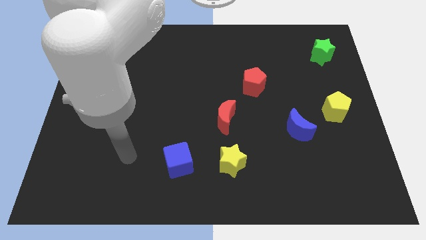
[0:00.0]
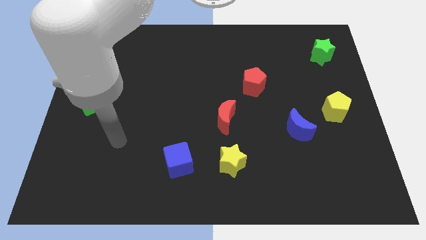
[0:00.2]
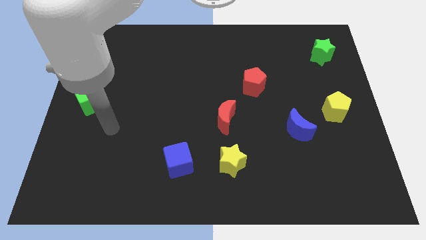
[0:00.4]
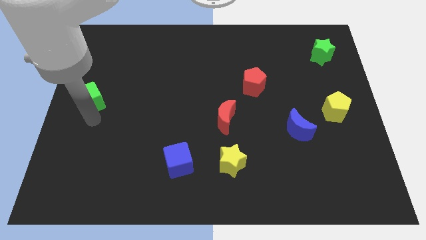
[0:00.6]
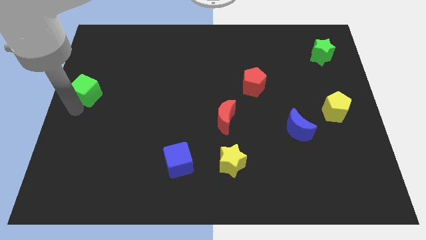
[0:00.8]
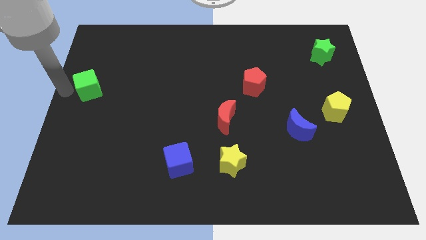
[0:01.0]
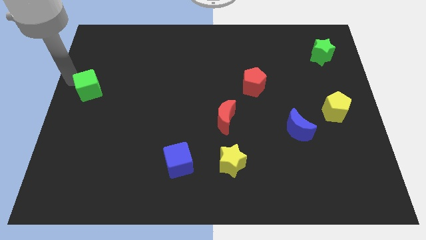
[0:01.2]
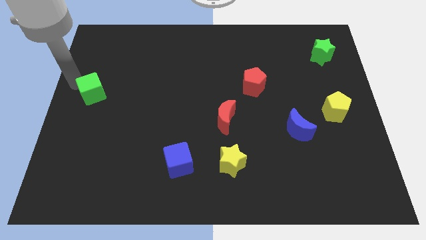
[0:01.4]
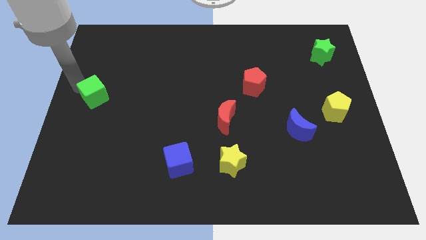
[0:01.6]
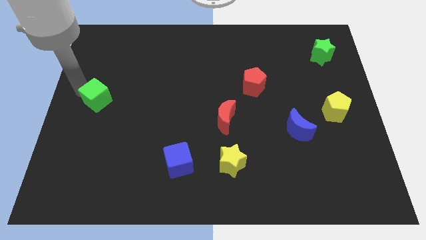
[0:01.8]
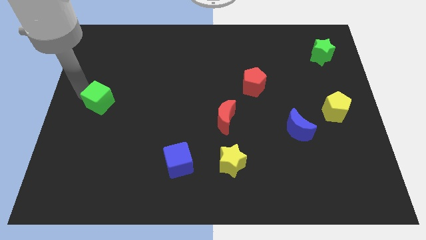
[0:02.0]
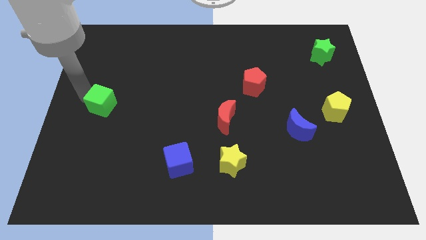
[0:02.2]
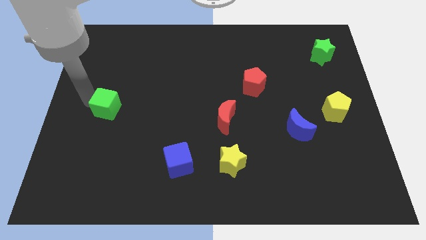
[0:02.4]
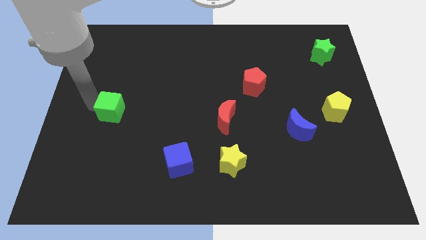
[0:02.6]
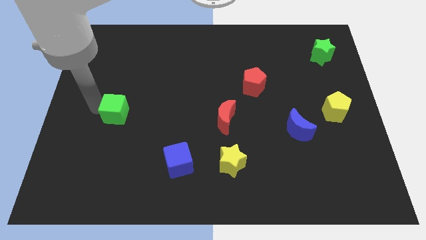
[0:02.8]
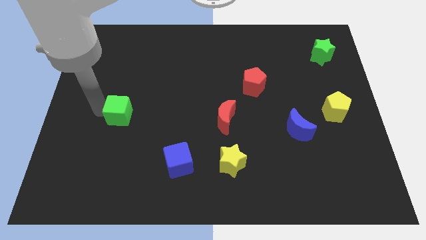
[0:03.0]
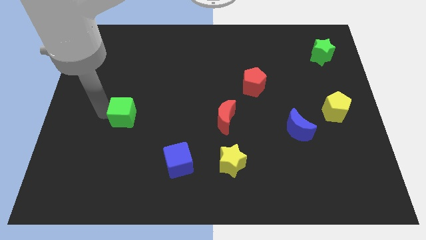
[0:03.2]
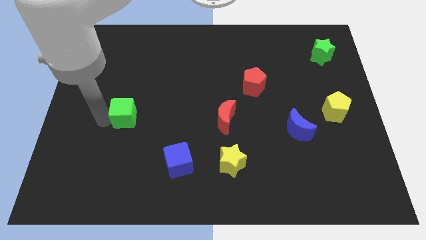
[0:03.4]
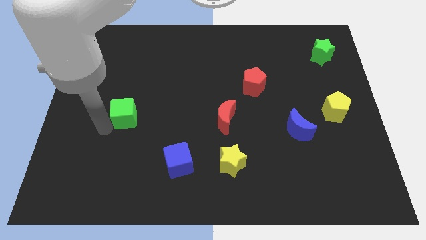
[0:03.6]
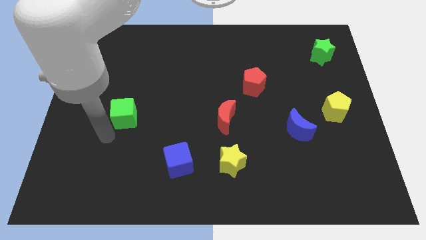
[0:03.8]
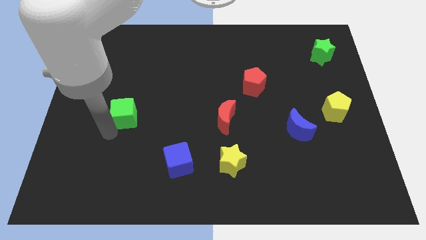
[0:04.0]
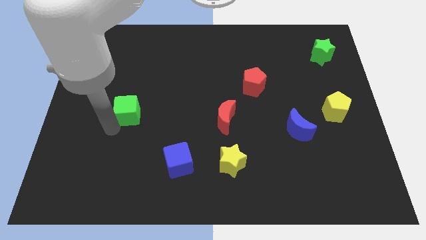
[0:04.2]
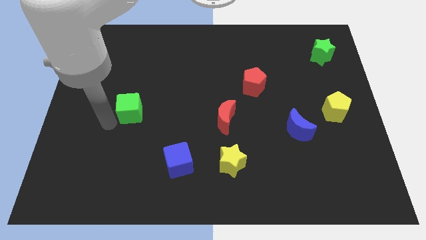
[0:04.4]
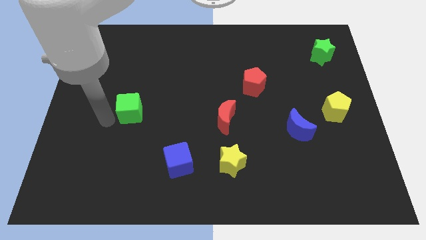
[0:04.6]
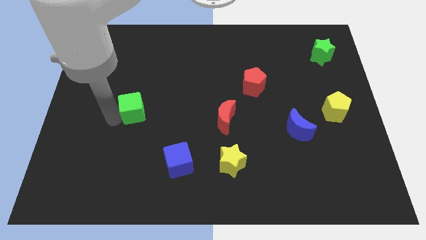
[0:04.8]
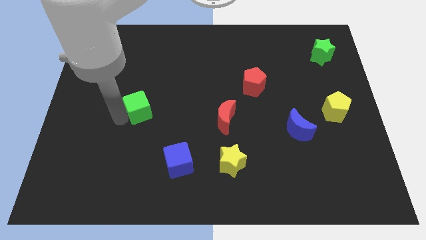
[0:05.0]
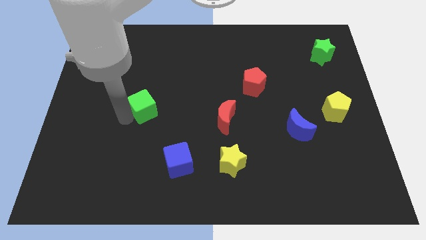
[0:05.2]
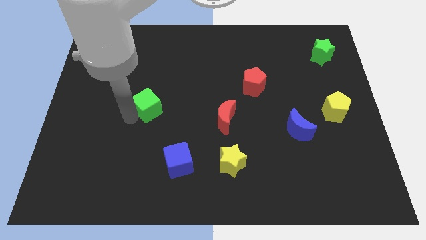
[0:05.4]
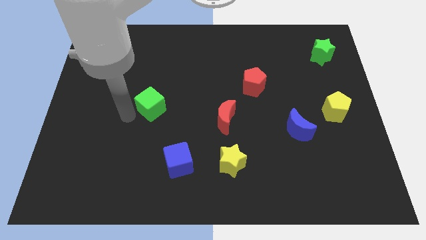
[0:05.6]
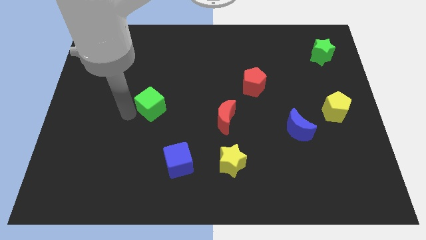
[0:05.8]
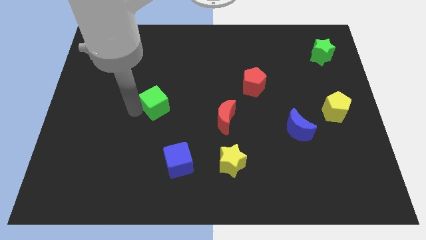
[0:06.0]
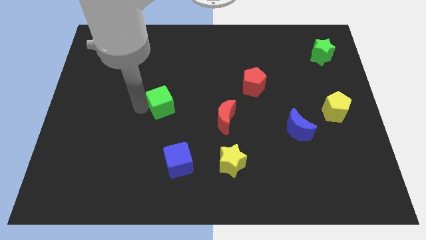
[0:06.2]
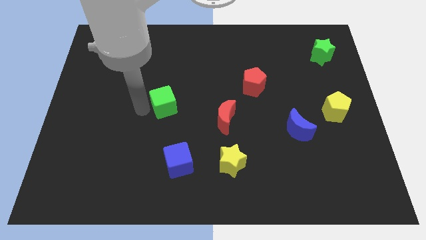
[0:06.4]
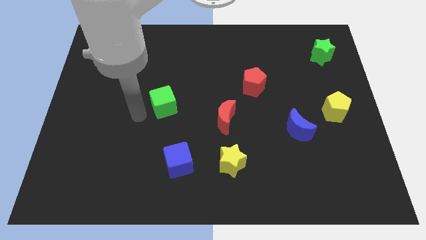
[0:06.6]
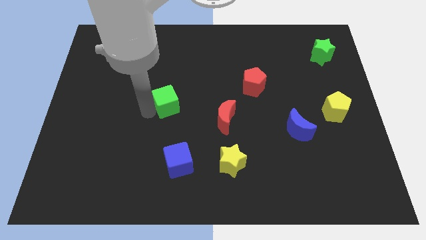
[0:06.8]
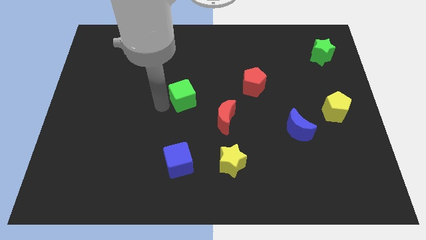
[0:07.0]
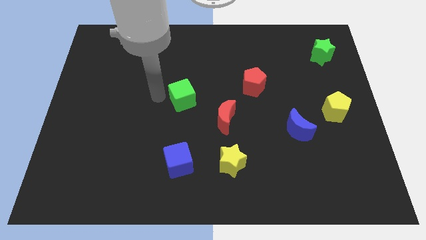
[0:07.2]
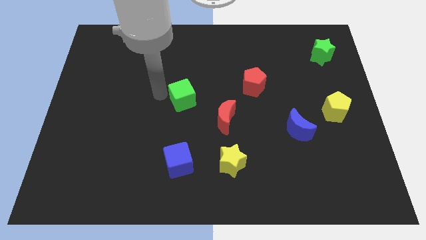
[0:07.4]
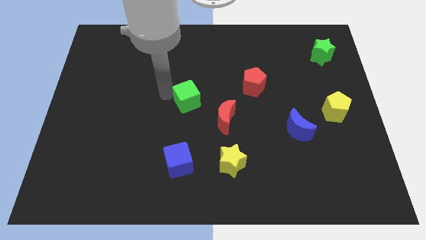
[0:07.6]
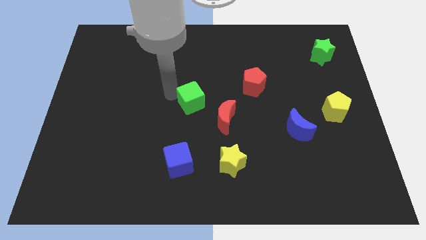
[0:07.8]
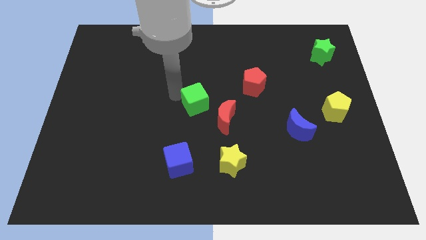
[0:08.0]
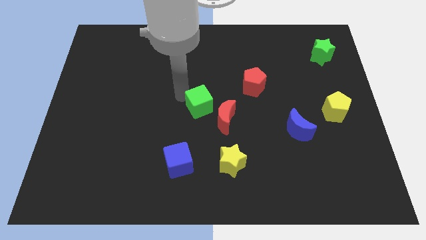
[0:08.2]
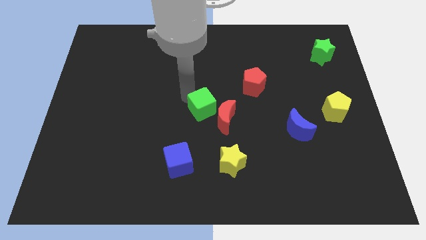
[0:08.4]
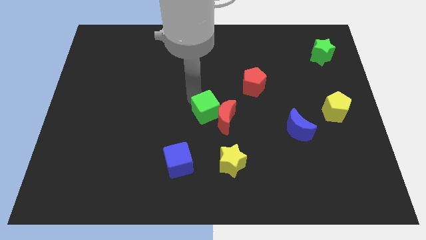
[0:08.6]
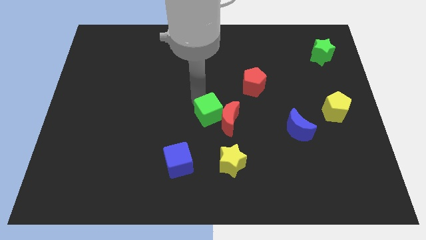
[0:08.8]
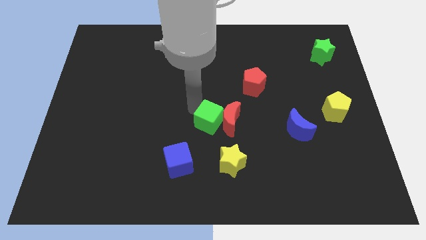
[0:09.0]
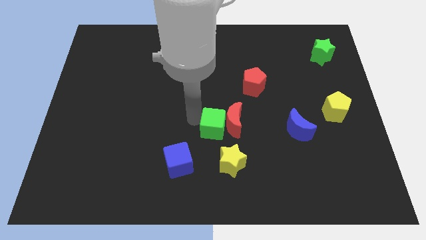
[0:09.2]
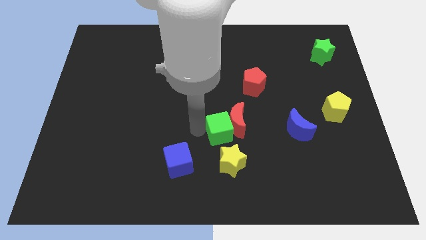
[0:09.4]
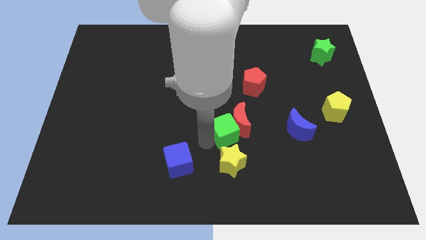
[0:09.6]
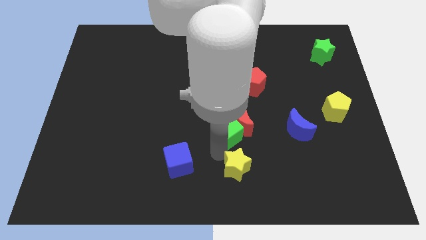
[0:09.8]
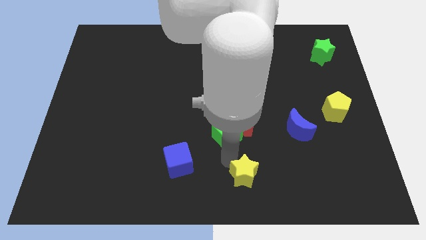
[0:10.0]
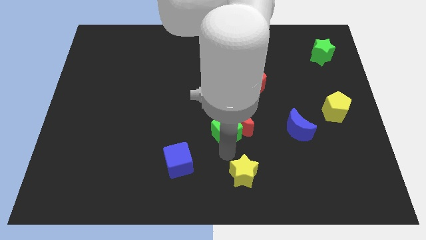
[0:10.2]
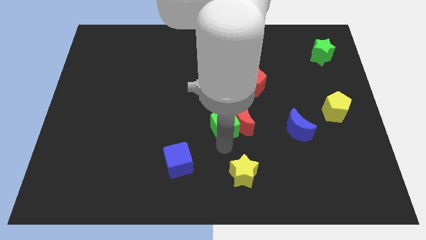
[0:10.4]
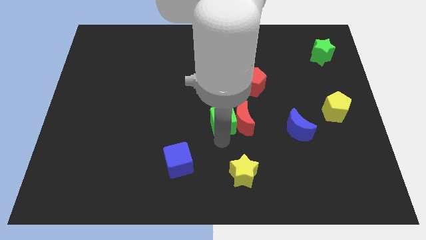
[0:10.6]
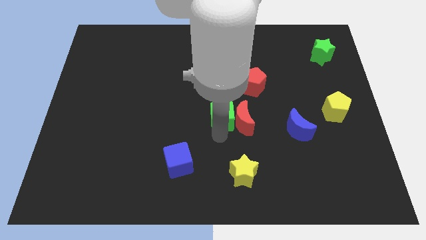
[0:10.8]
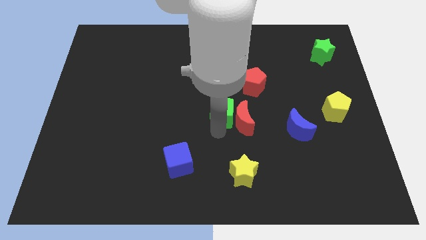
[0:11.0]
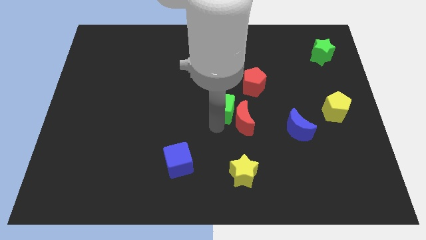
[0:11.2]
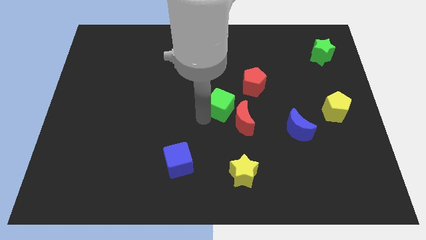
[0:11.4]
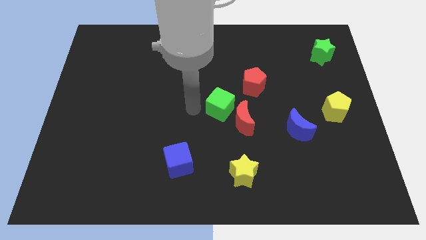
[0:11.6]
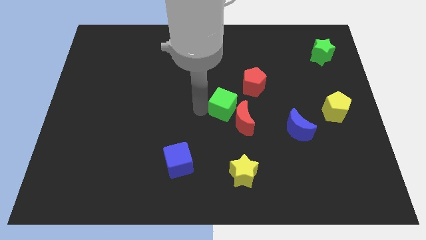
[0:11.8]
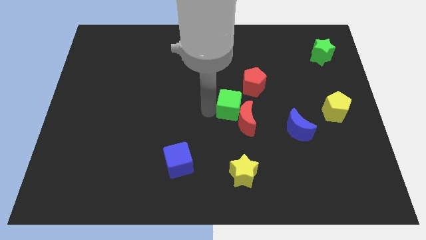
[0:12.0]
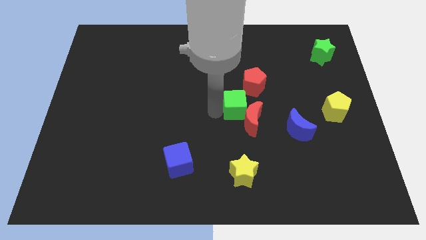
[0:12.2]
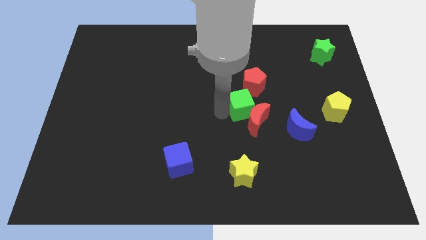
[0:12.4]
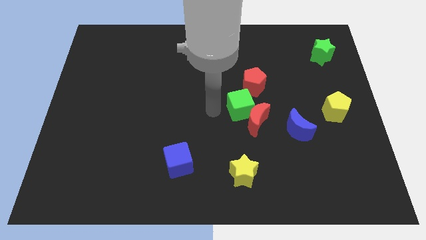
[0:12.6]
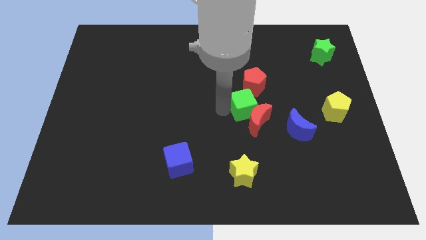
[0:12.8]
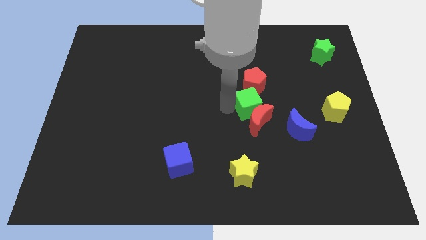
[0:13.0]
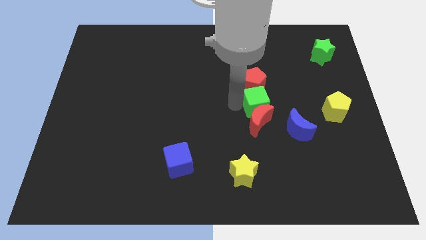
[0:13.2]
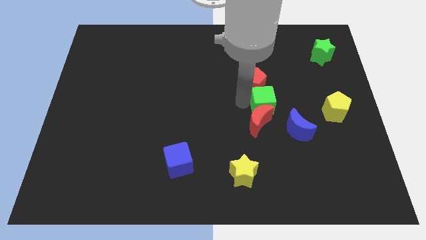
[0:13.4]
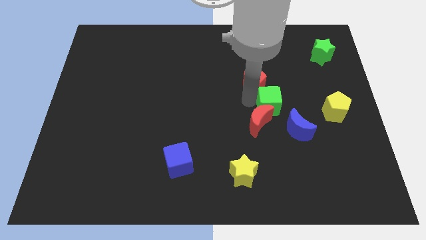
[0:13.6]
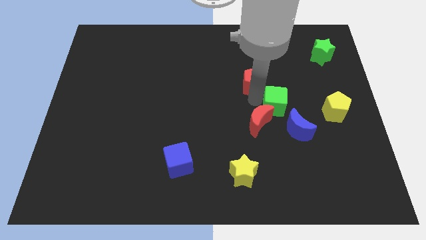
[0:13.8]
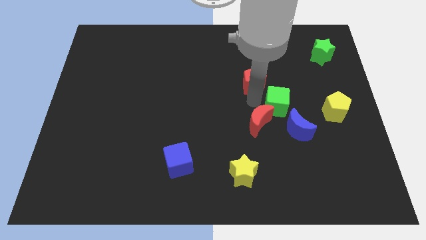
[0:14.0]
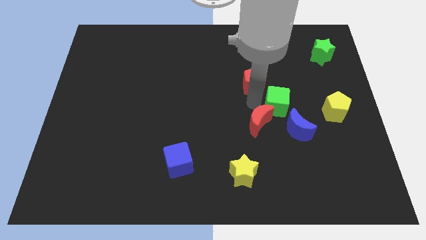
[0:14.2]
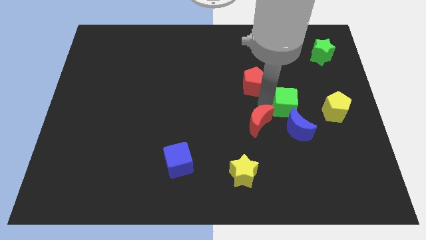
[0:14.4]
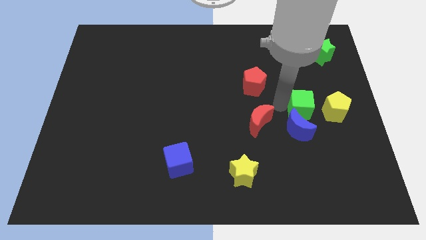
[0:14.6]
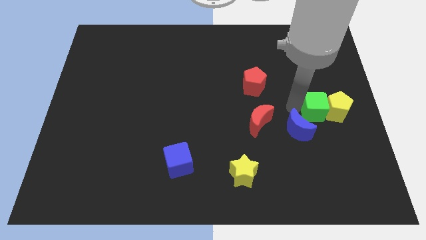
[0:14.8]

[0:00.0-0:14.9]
put the green cube next to the yellow pentagon
